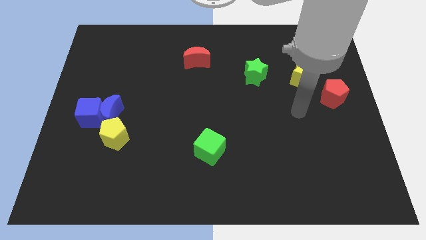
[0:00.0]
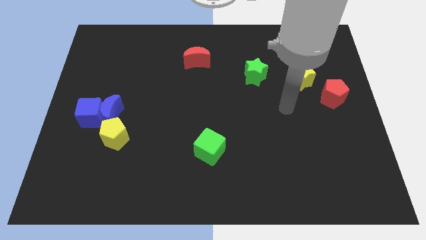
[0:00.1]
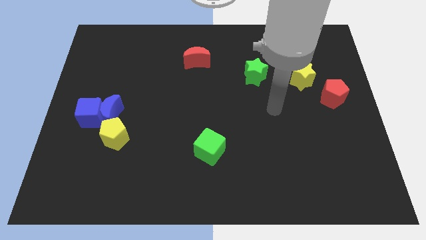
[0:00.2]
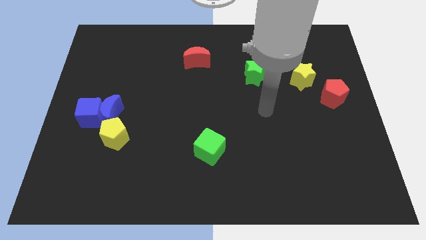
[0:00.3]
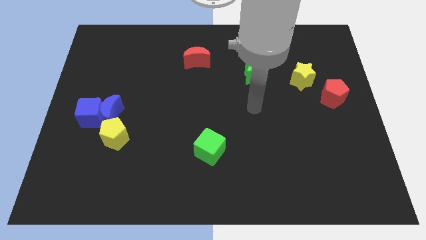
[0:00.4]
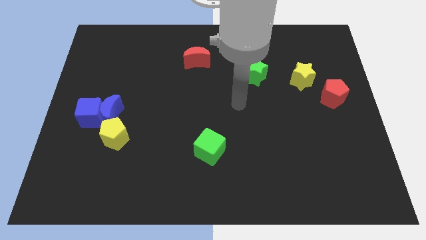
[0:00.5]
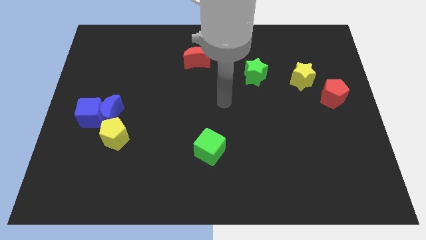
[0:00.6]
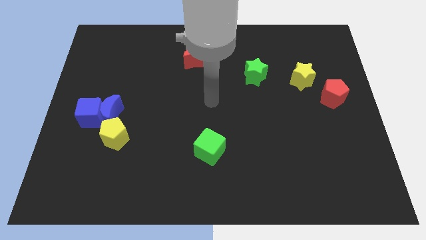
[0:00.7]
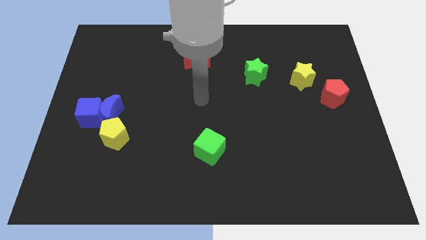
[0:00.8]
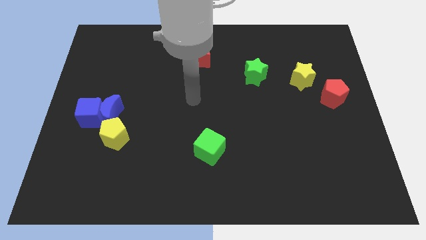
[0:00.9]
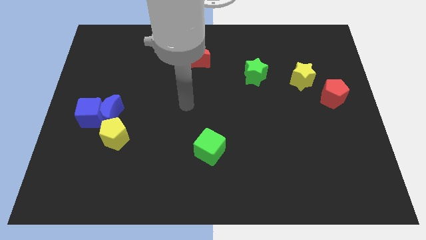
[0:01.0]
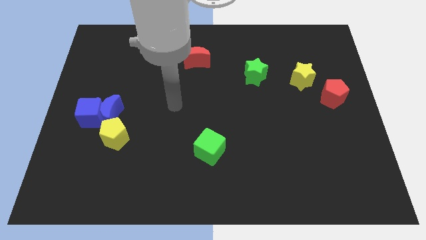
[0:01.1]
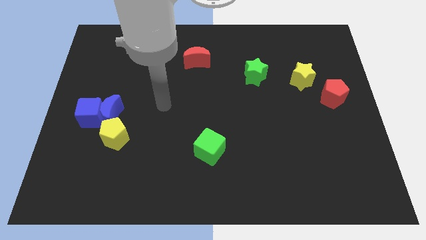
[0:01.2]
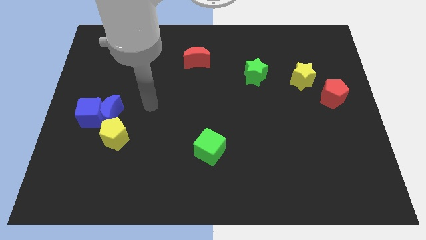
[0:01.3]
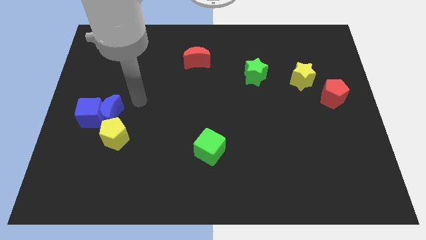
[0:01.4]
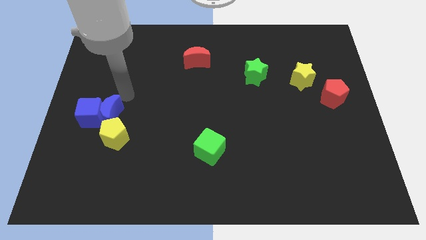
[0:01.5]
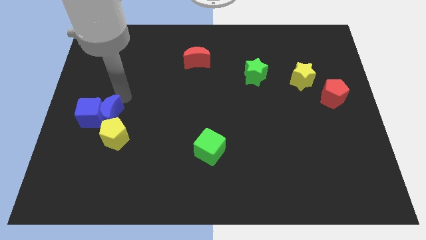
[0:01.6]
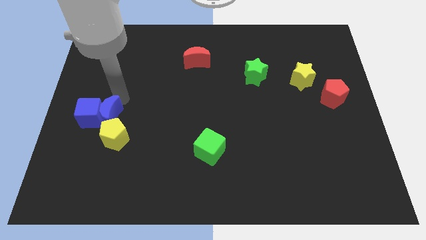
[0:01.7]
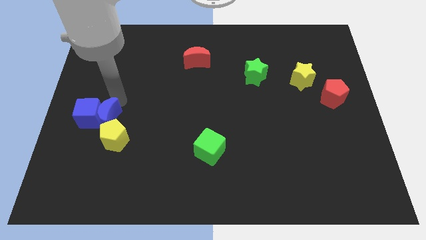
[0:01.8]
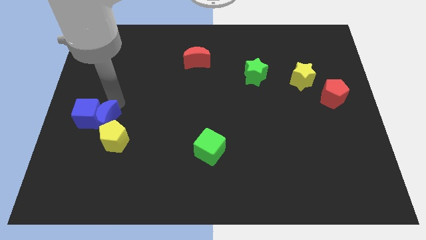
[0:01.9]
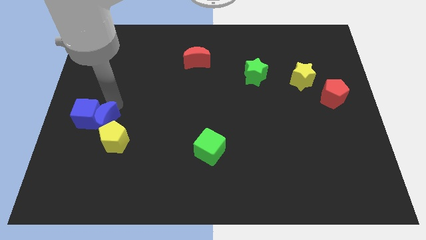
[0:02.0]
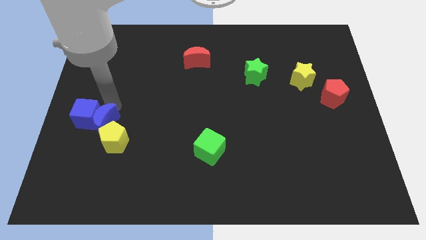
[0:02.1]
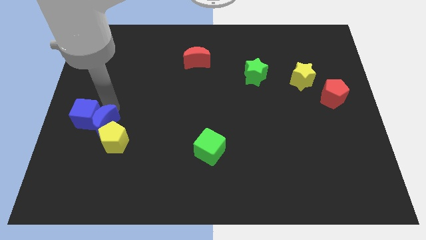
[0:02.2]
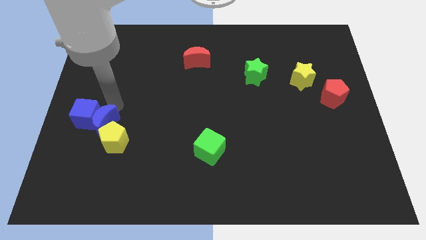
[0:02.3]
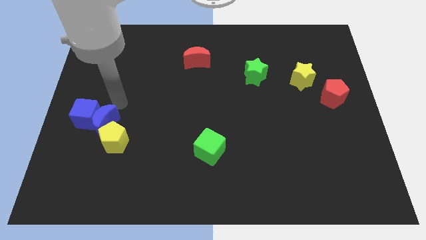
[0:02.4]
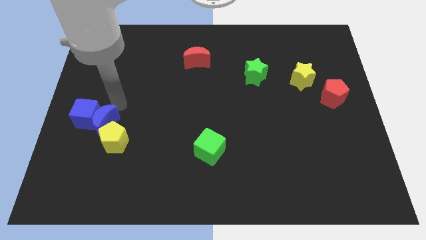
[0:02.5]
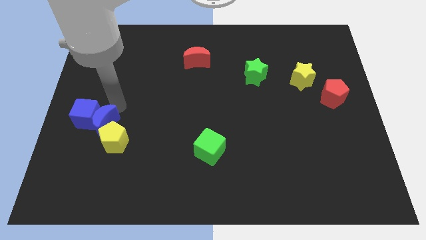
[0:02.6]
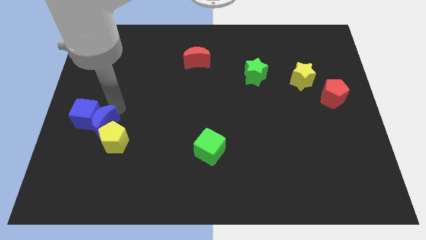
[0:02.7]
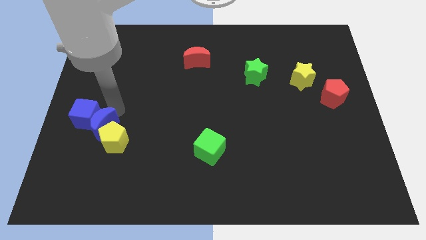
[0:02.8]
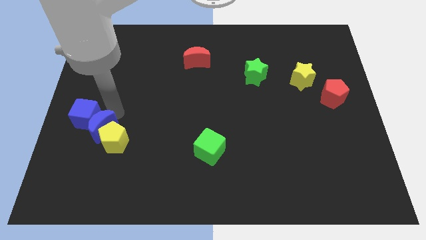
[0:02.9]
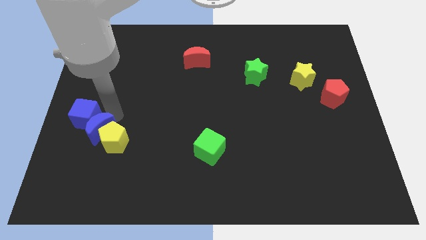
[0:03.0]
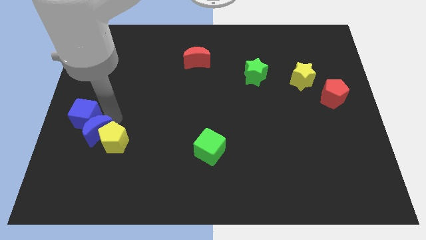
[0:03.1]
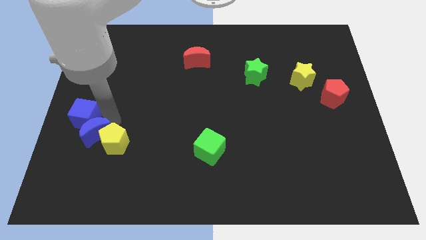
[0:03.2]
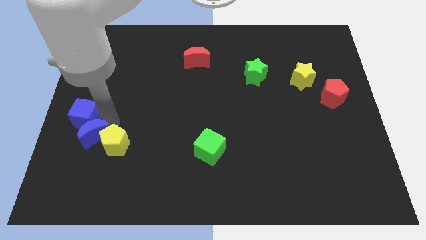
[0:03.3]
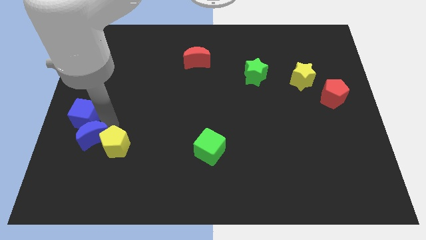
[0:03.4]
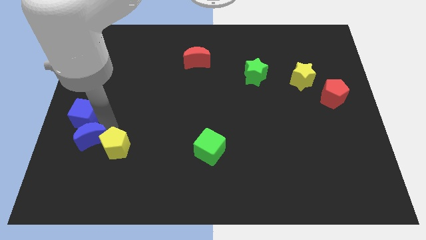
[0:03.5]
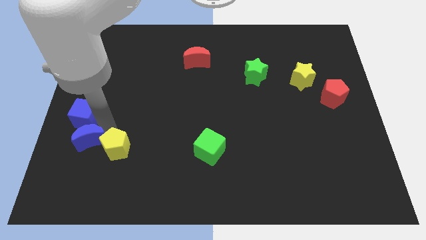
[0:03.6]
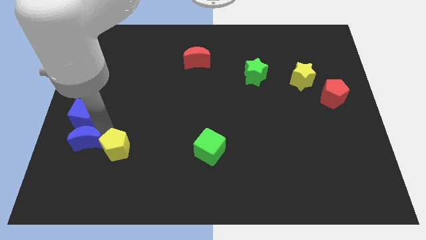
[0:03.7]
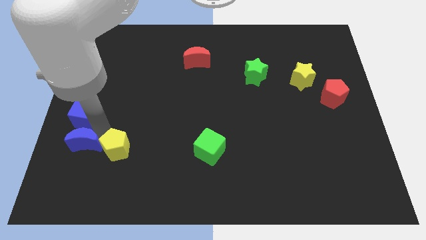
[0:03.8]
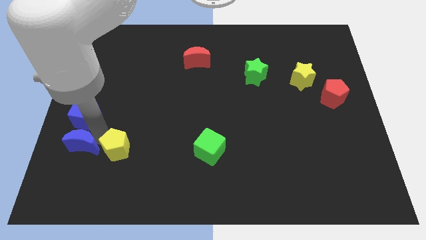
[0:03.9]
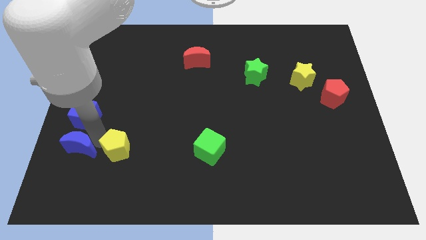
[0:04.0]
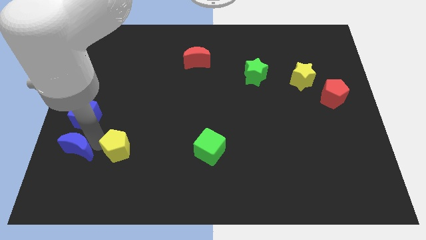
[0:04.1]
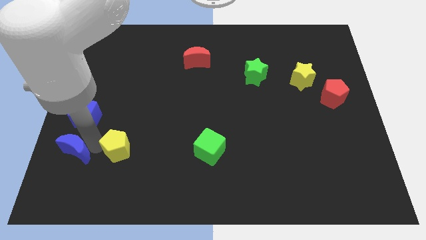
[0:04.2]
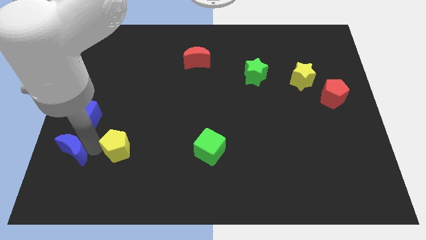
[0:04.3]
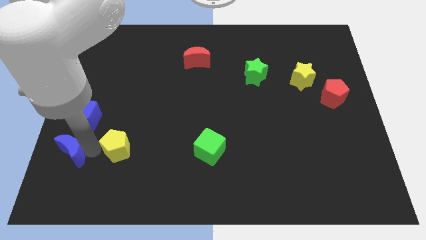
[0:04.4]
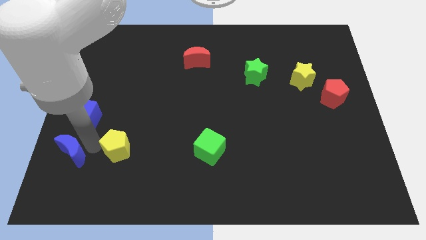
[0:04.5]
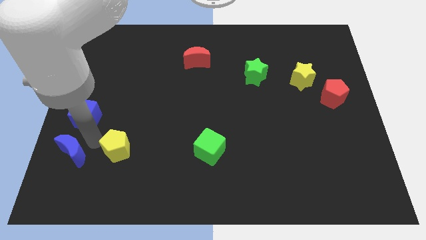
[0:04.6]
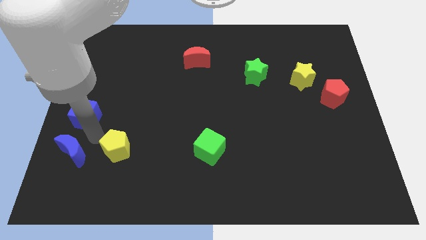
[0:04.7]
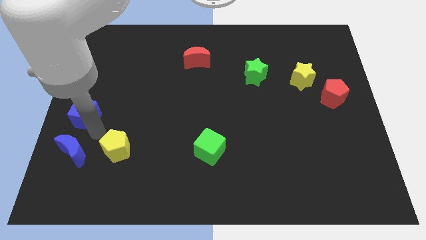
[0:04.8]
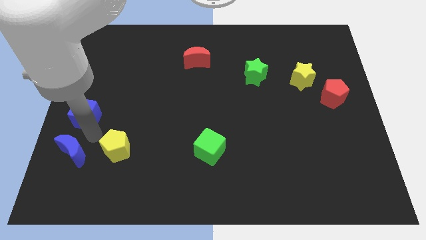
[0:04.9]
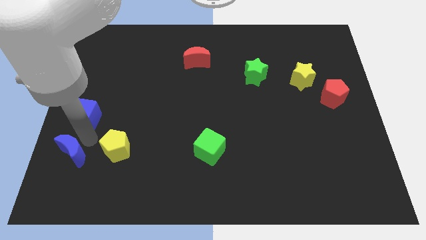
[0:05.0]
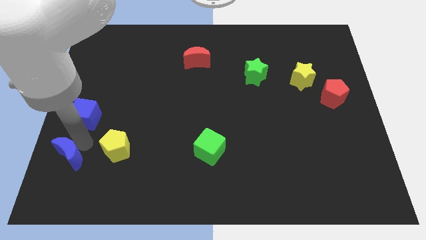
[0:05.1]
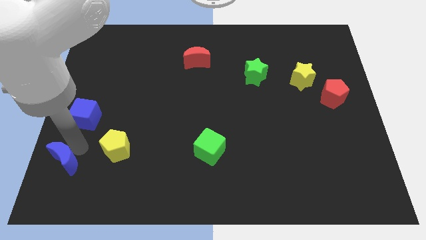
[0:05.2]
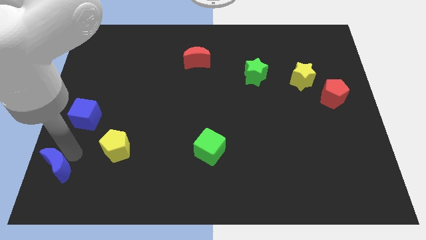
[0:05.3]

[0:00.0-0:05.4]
move the blue moon to the bottom left

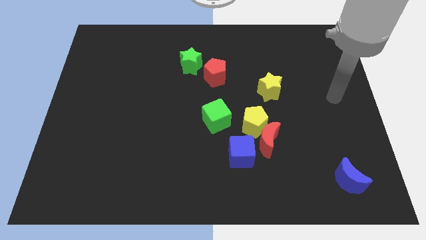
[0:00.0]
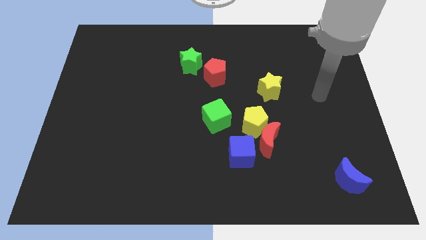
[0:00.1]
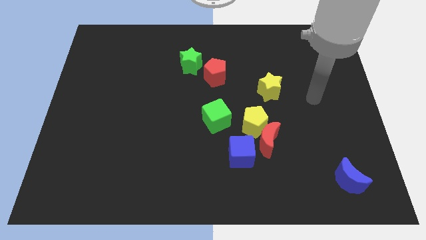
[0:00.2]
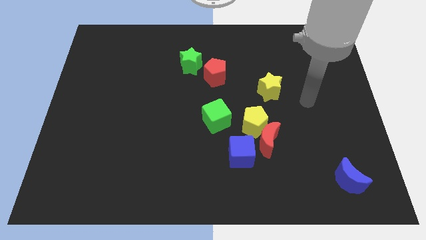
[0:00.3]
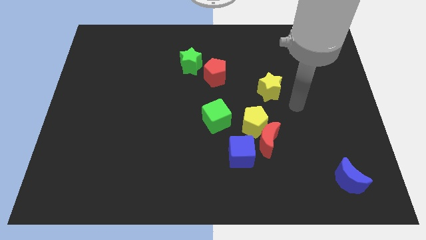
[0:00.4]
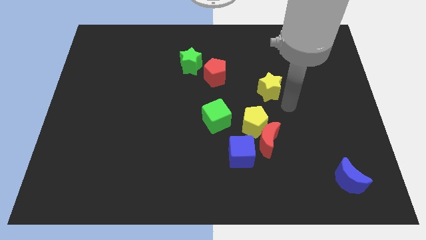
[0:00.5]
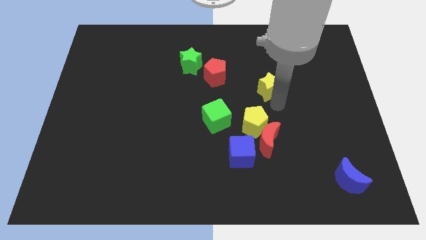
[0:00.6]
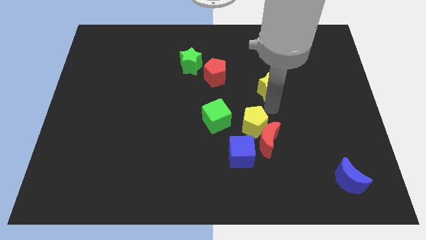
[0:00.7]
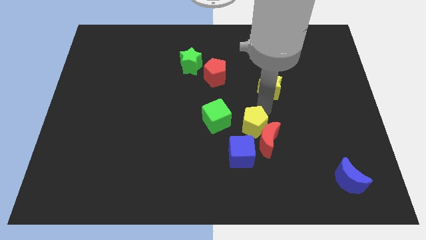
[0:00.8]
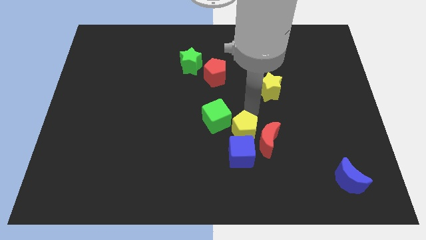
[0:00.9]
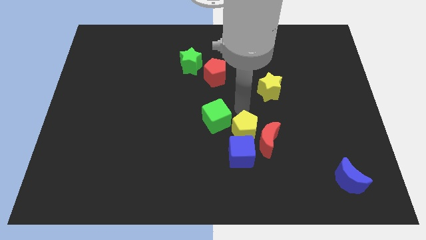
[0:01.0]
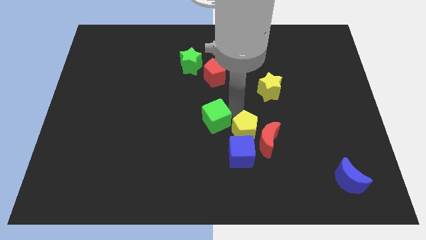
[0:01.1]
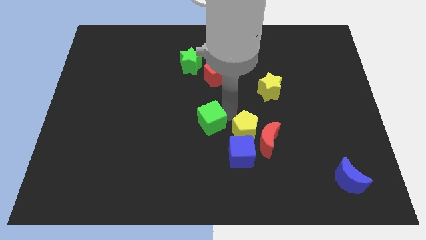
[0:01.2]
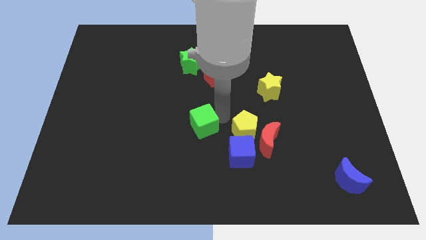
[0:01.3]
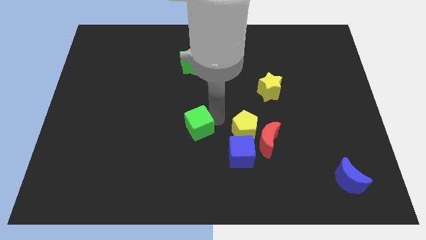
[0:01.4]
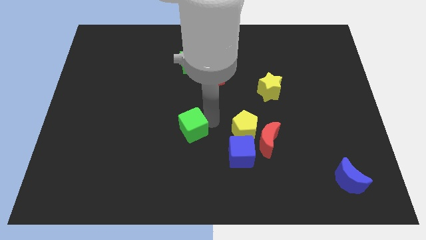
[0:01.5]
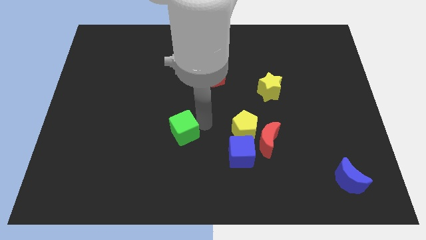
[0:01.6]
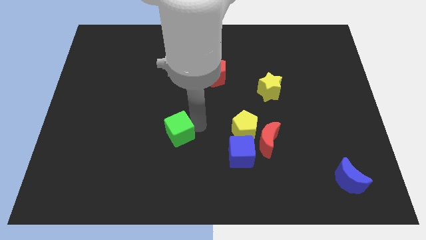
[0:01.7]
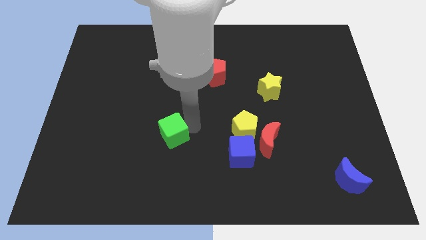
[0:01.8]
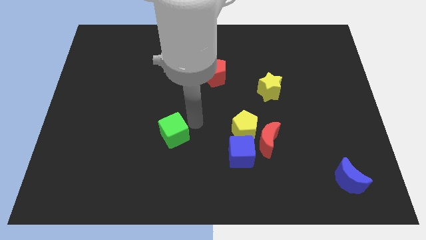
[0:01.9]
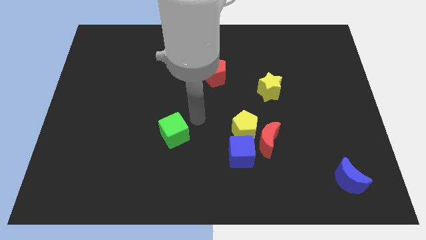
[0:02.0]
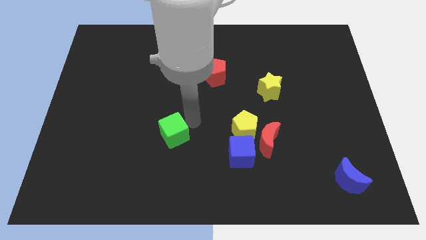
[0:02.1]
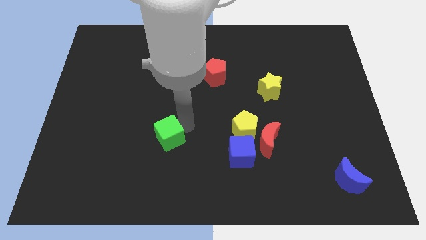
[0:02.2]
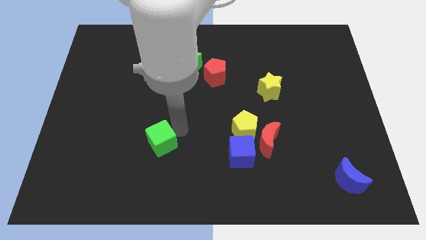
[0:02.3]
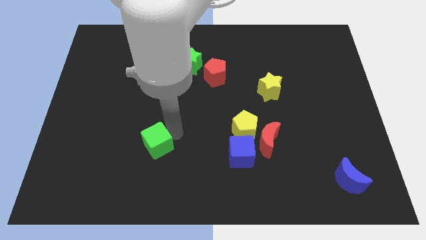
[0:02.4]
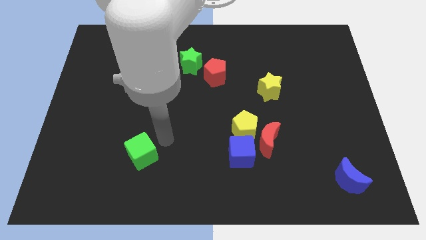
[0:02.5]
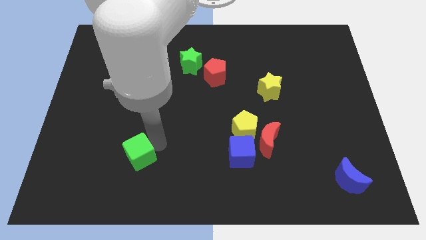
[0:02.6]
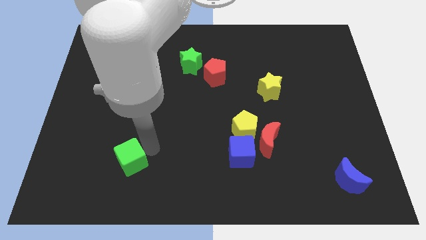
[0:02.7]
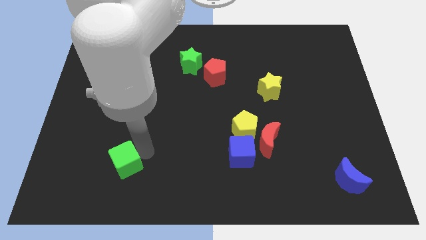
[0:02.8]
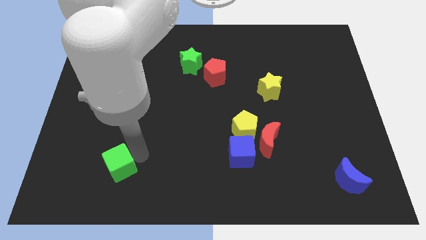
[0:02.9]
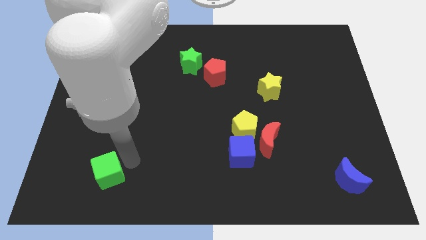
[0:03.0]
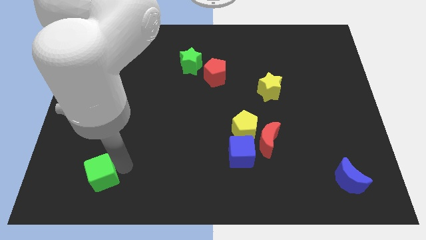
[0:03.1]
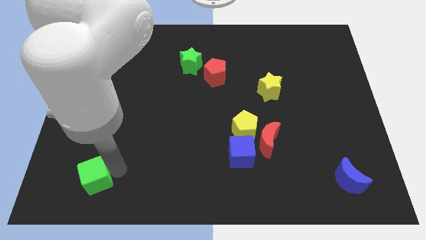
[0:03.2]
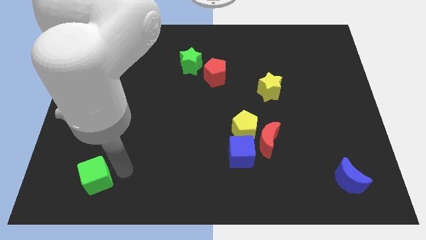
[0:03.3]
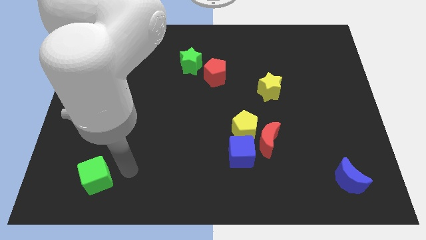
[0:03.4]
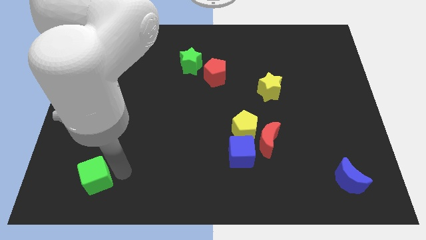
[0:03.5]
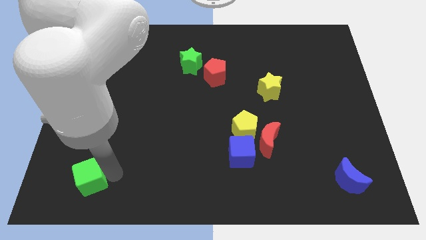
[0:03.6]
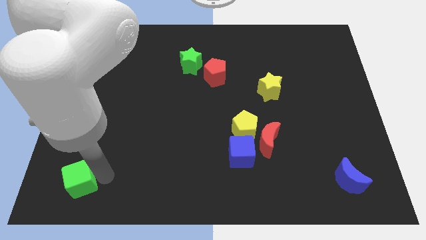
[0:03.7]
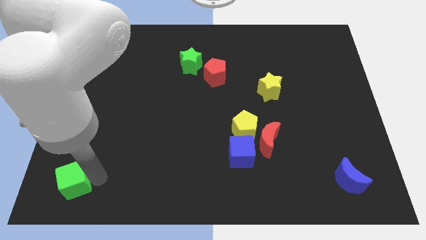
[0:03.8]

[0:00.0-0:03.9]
slide the green cube to the lower left corner
